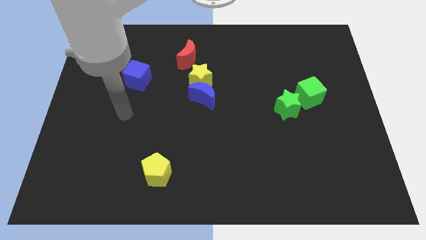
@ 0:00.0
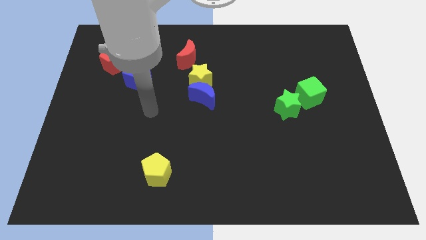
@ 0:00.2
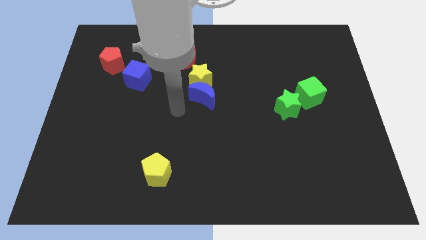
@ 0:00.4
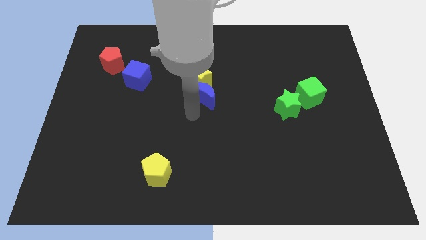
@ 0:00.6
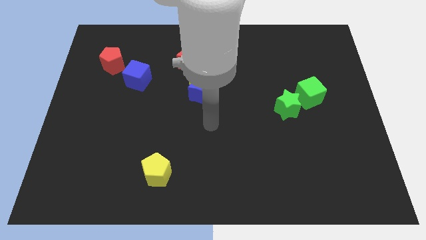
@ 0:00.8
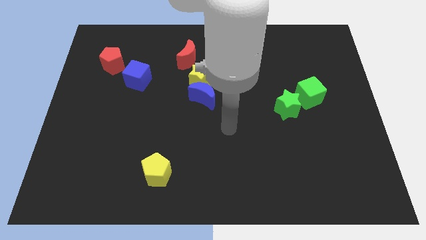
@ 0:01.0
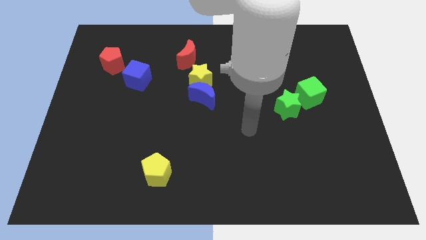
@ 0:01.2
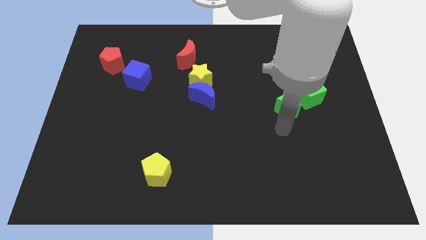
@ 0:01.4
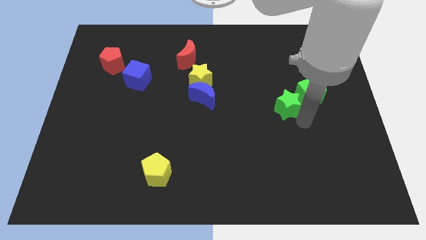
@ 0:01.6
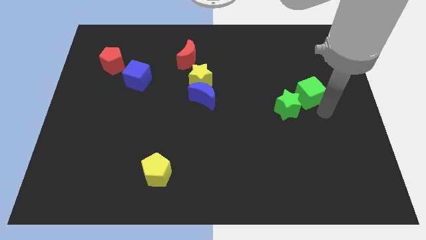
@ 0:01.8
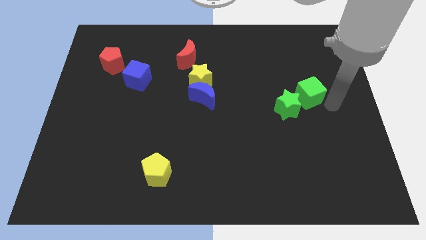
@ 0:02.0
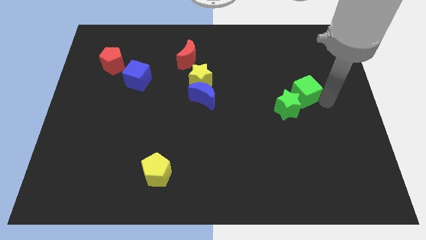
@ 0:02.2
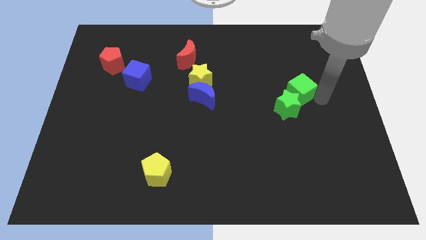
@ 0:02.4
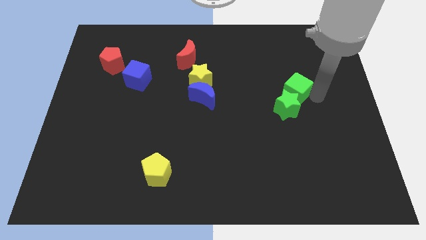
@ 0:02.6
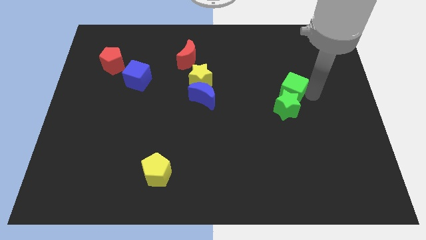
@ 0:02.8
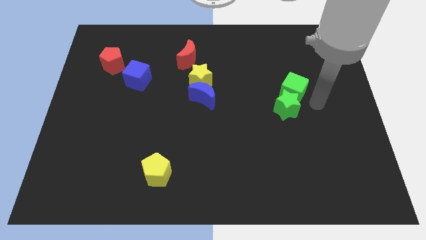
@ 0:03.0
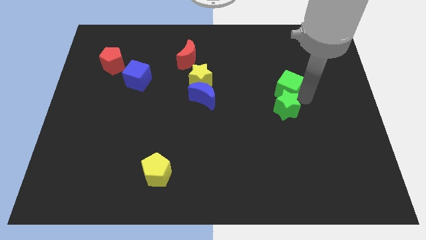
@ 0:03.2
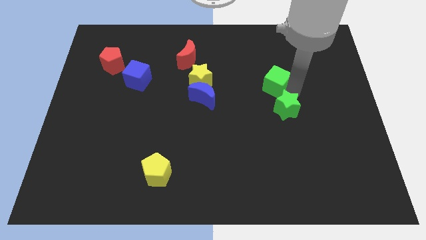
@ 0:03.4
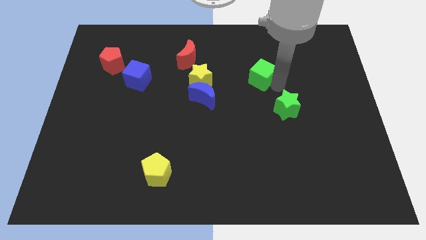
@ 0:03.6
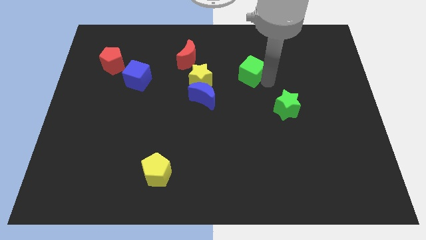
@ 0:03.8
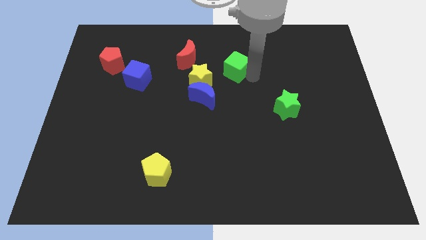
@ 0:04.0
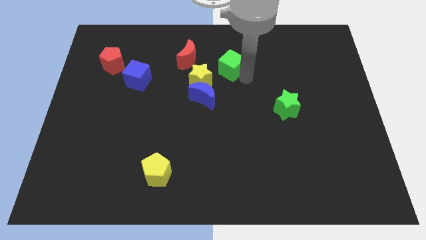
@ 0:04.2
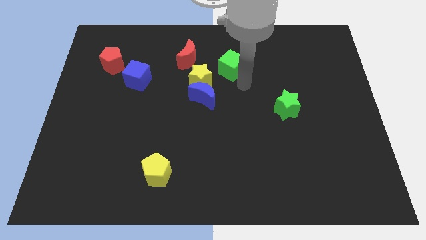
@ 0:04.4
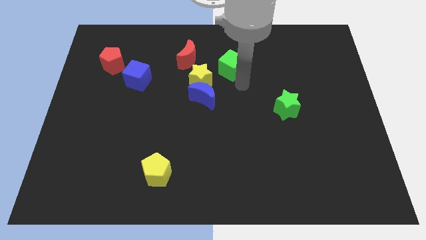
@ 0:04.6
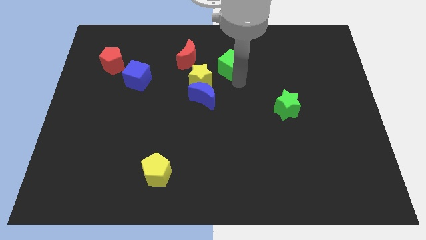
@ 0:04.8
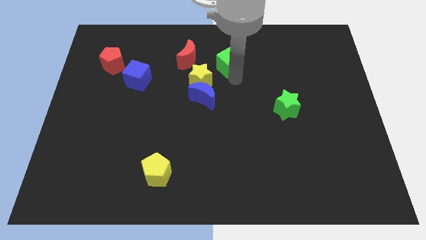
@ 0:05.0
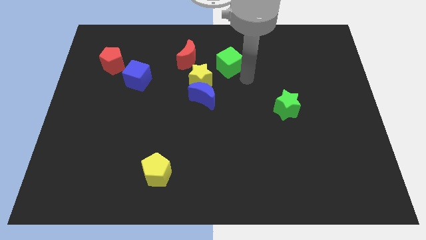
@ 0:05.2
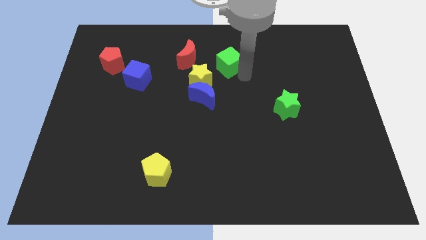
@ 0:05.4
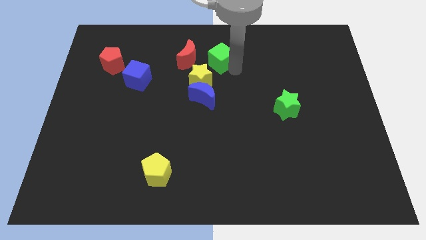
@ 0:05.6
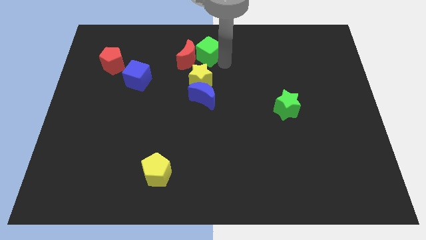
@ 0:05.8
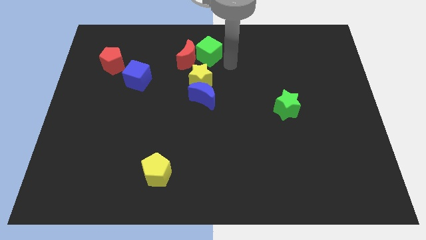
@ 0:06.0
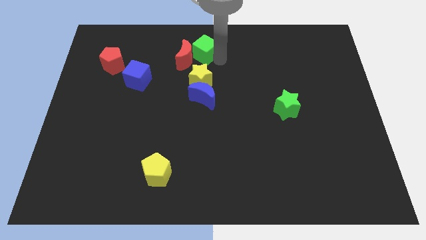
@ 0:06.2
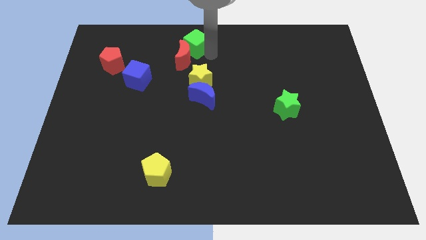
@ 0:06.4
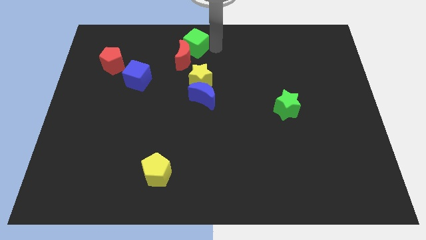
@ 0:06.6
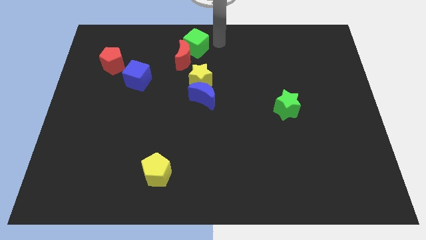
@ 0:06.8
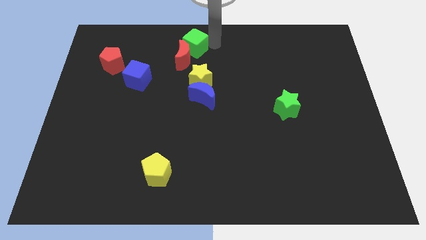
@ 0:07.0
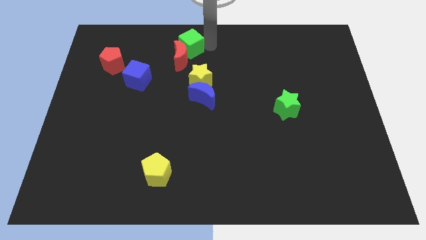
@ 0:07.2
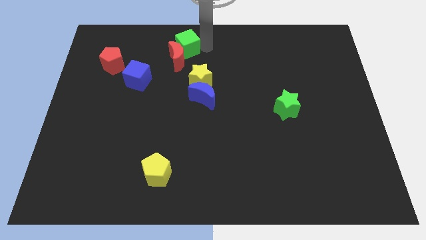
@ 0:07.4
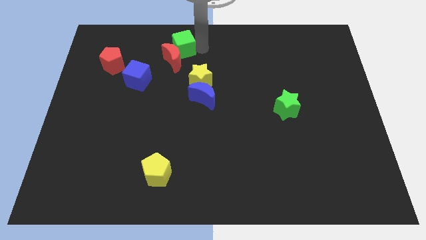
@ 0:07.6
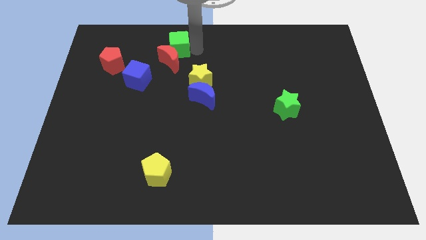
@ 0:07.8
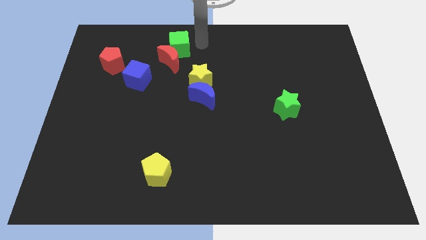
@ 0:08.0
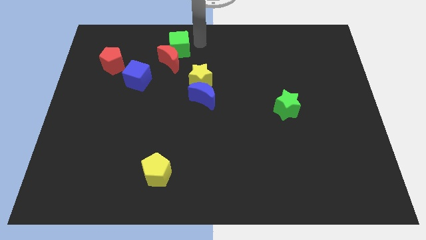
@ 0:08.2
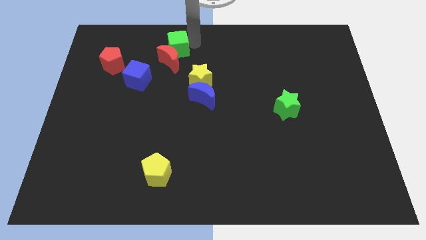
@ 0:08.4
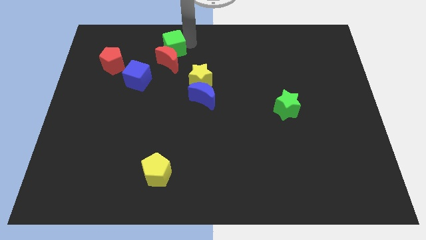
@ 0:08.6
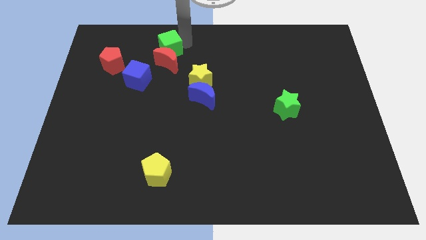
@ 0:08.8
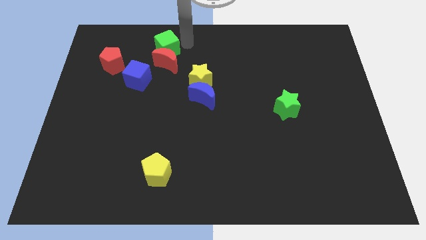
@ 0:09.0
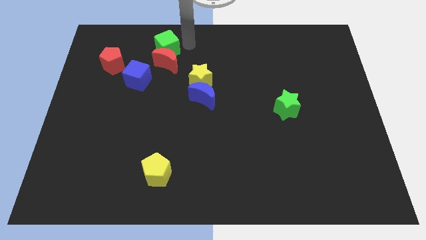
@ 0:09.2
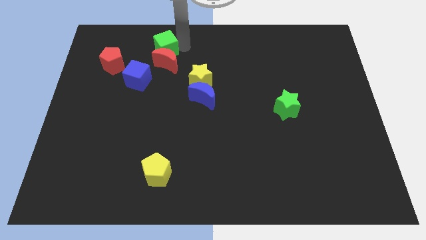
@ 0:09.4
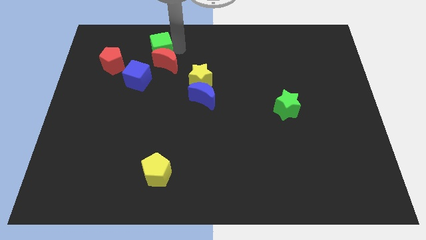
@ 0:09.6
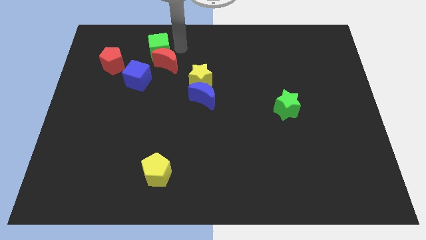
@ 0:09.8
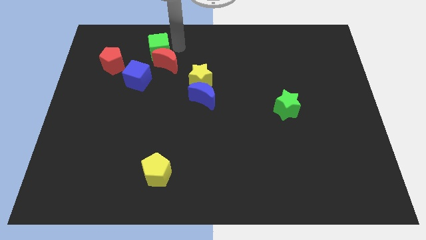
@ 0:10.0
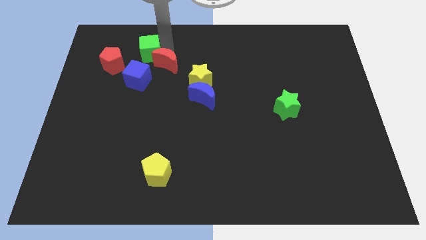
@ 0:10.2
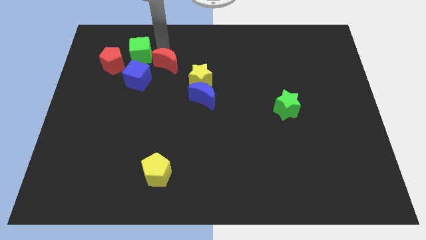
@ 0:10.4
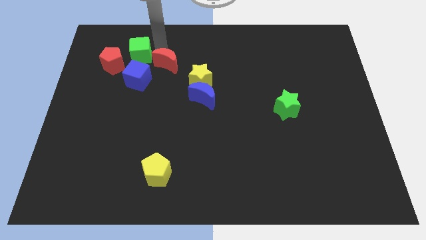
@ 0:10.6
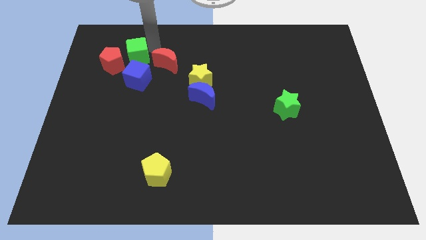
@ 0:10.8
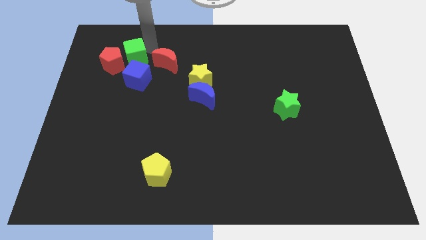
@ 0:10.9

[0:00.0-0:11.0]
put the green cube towards the red pentagon
